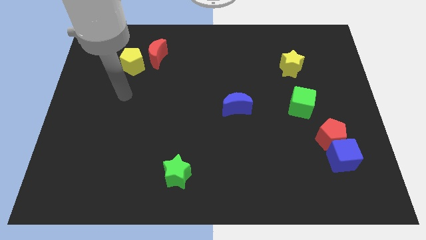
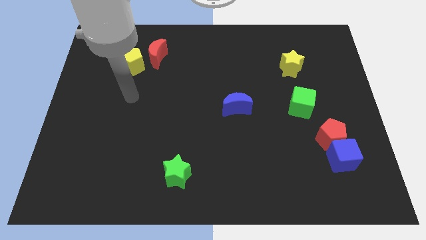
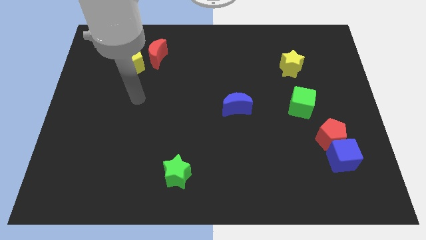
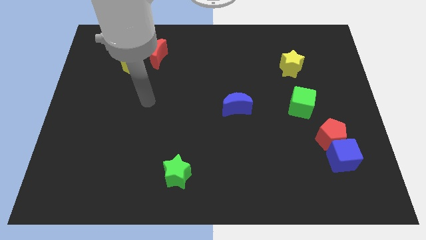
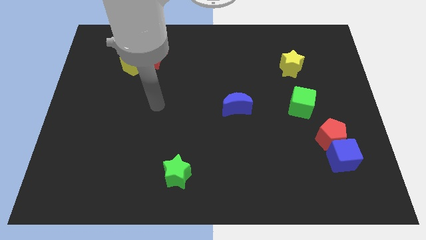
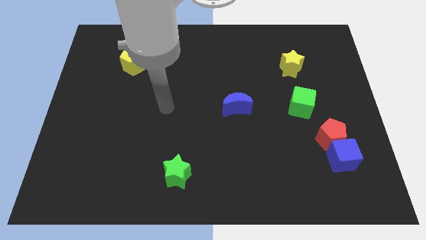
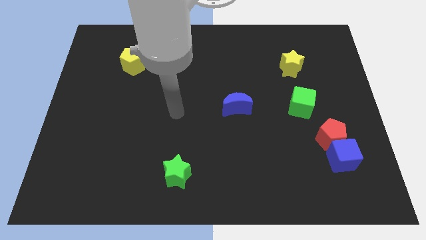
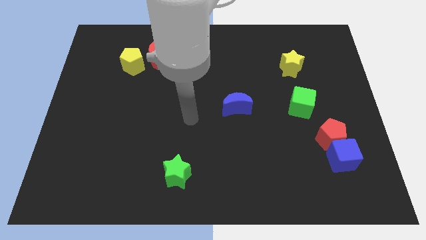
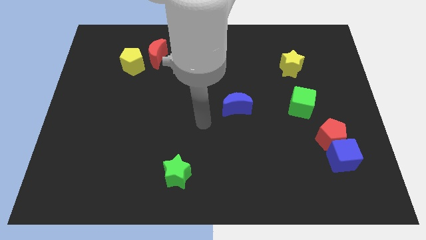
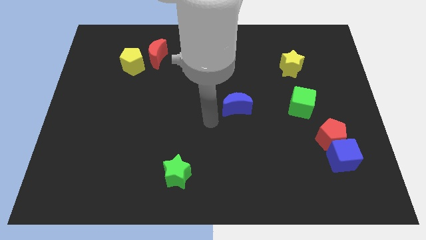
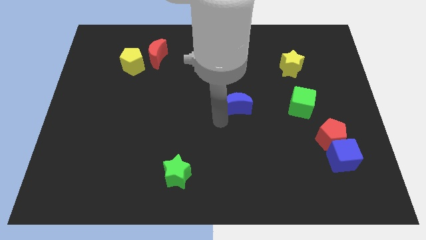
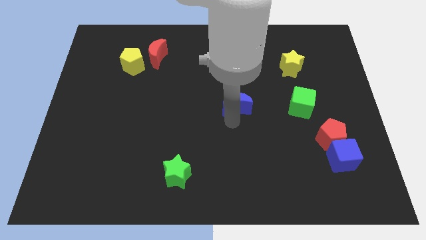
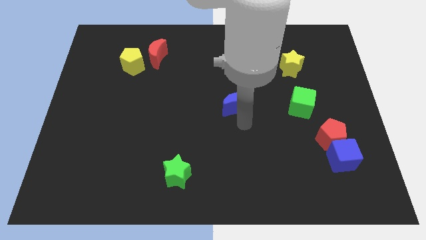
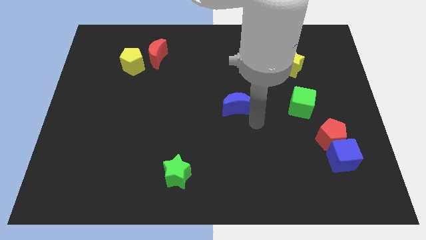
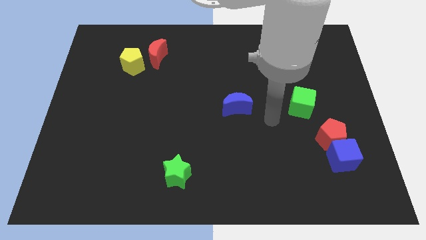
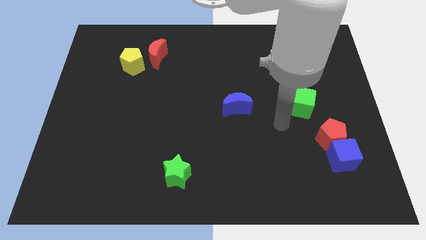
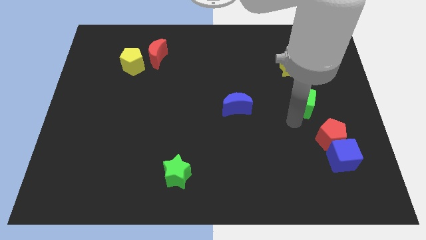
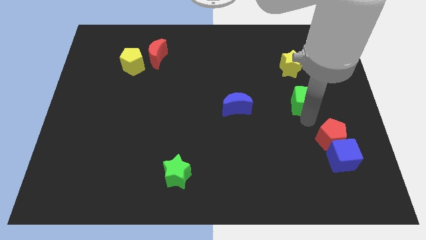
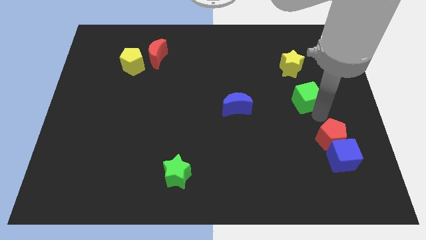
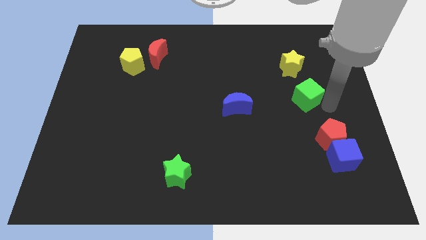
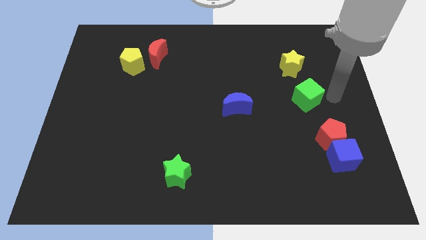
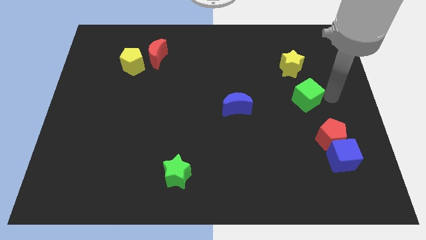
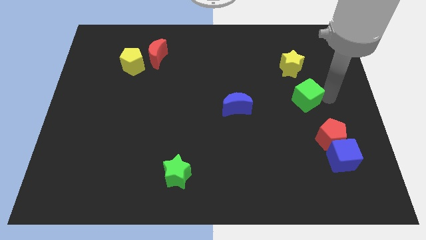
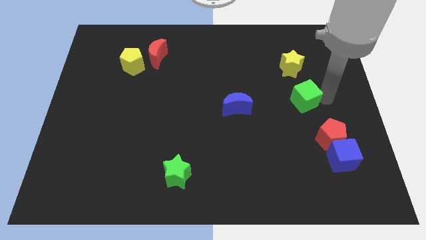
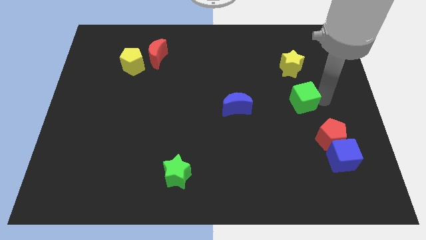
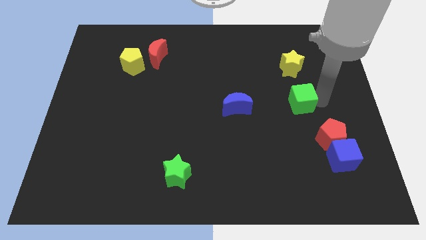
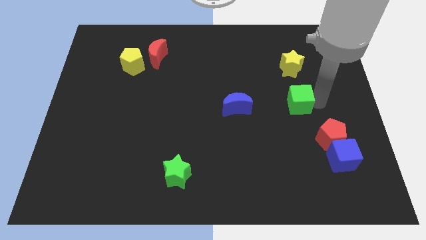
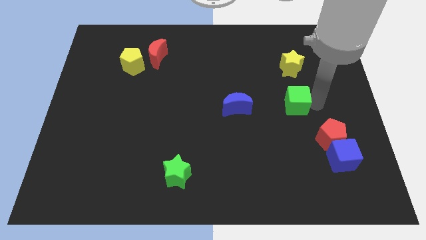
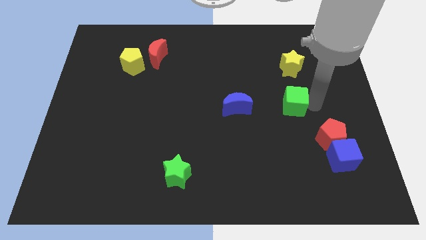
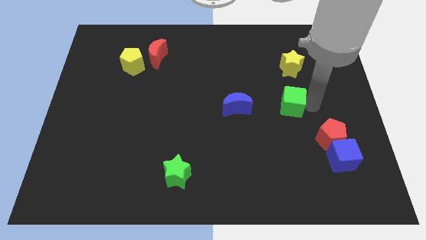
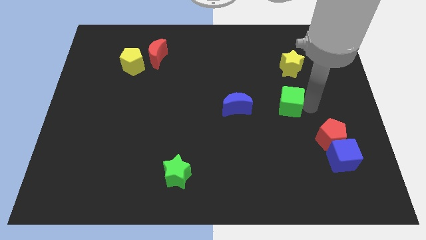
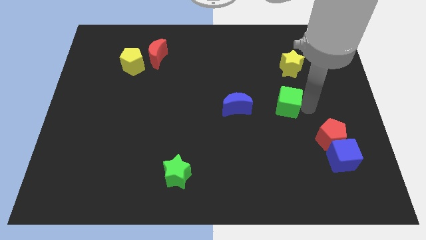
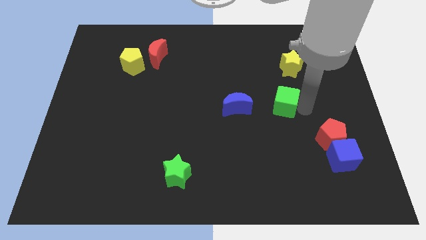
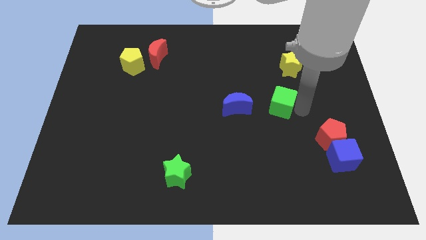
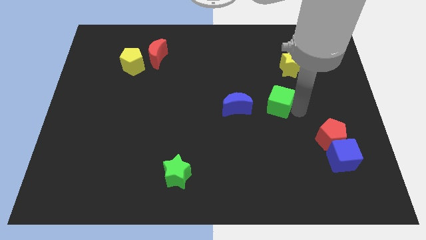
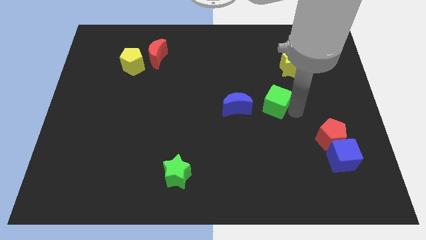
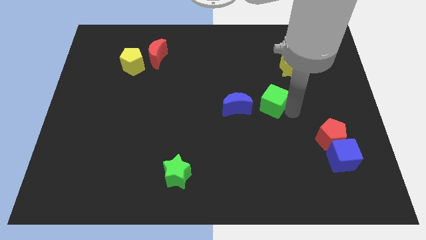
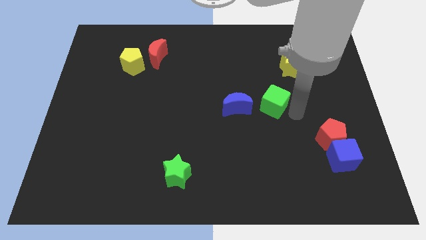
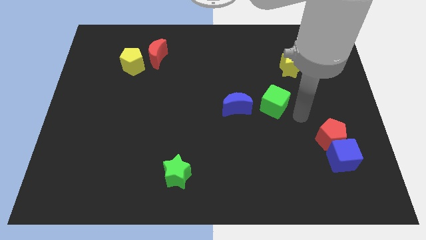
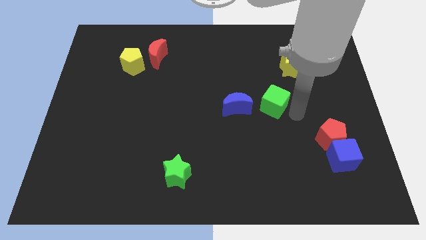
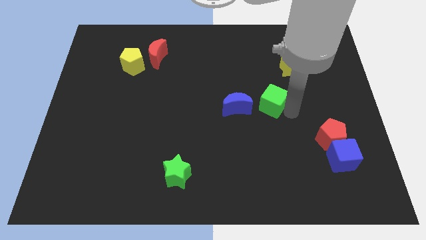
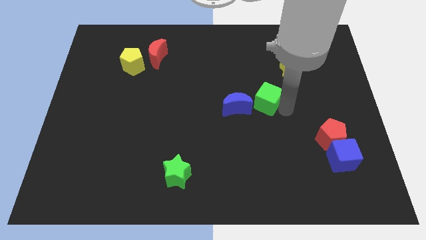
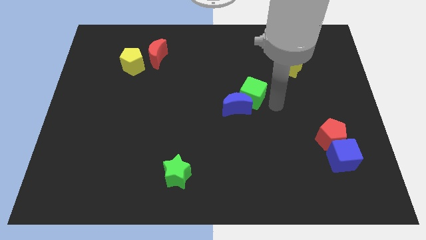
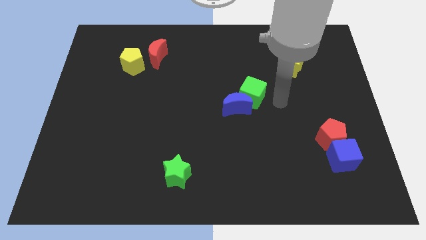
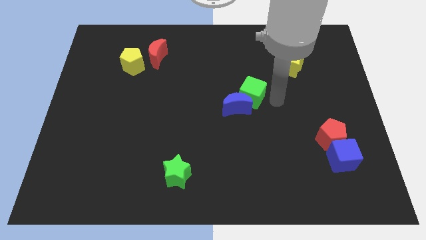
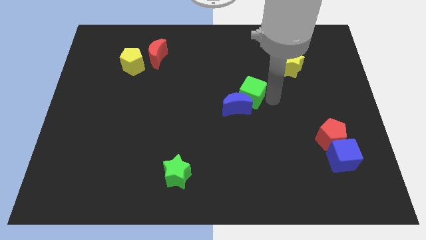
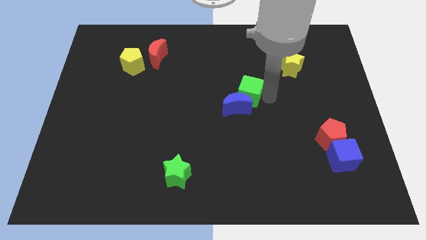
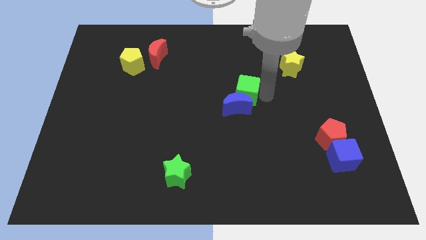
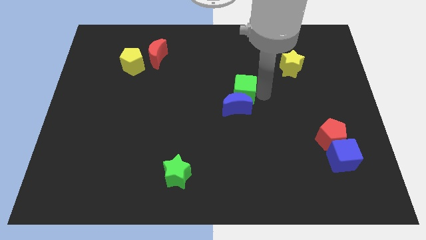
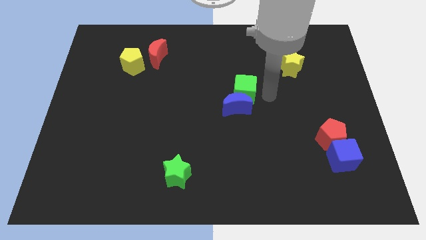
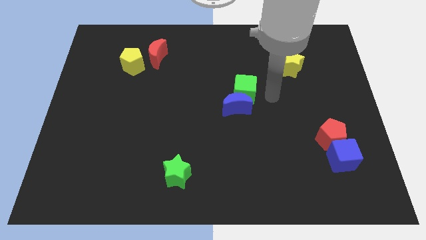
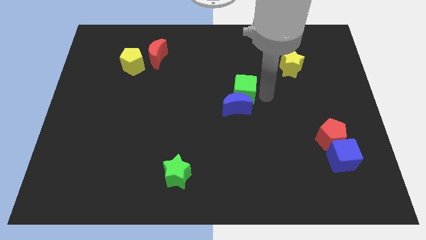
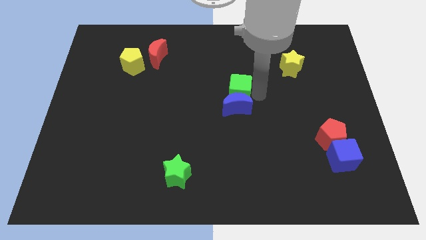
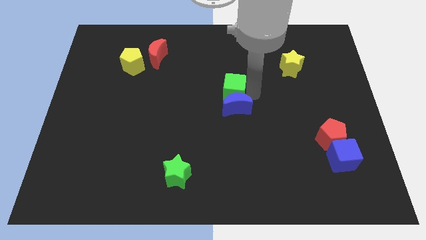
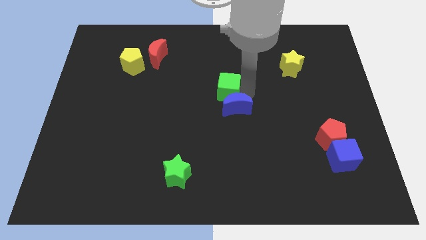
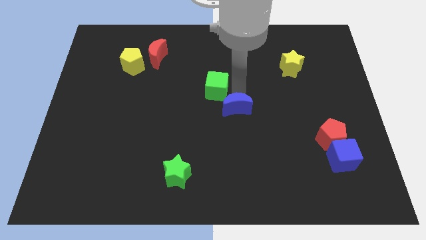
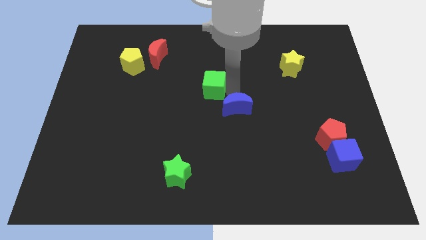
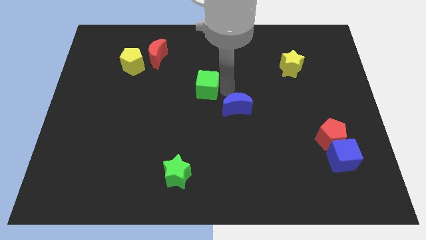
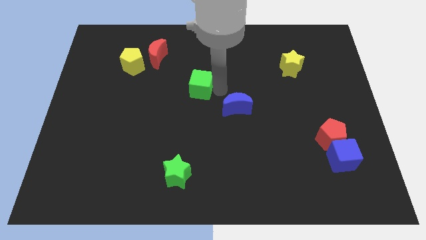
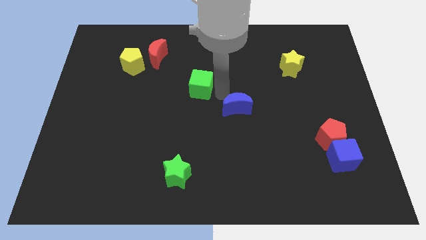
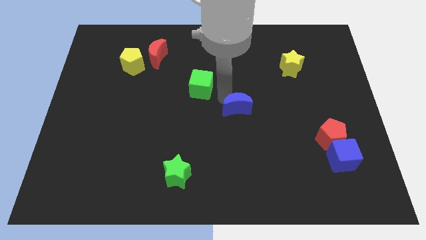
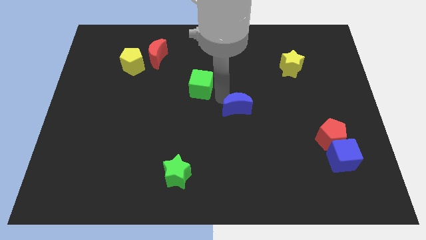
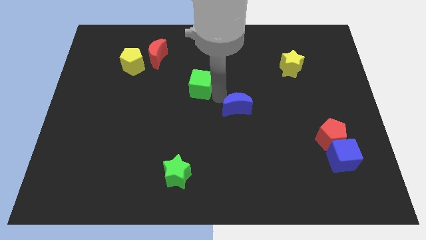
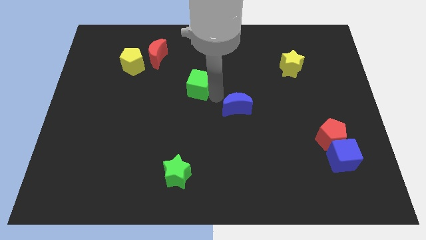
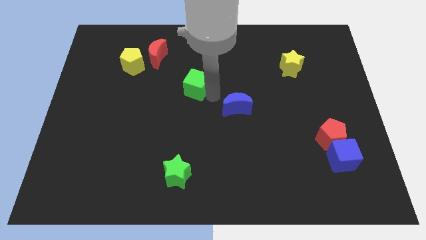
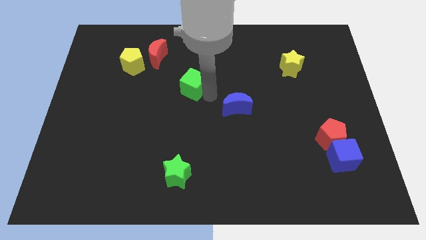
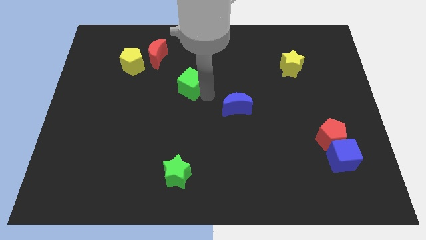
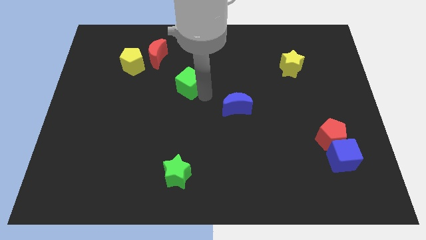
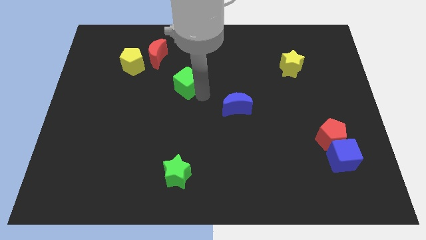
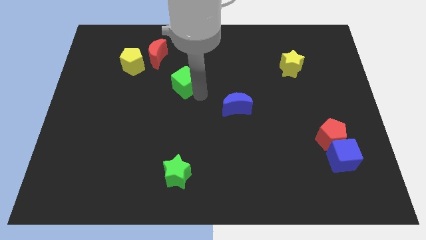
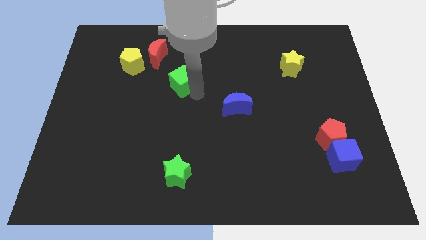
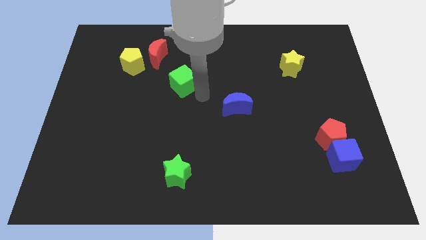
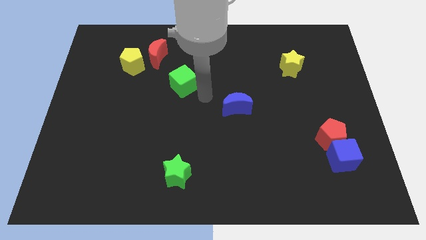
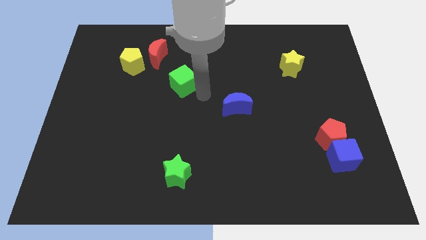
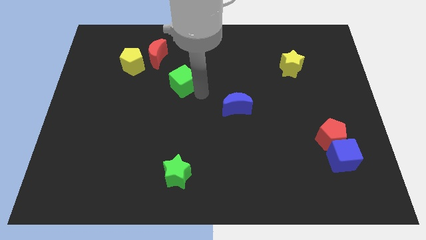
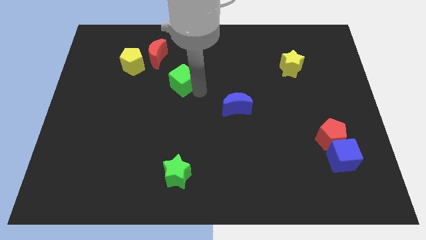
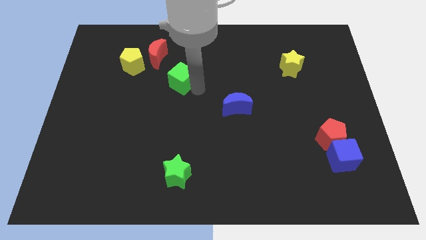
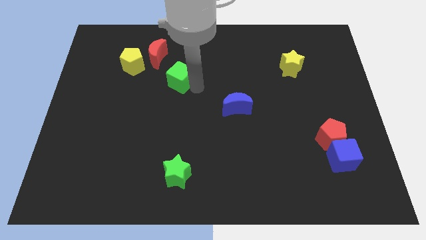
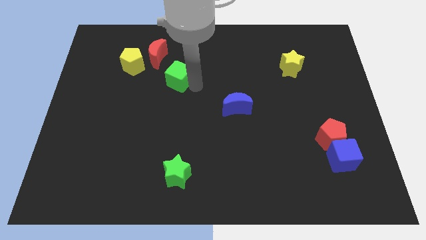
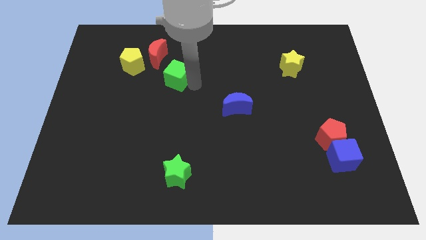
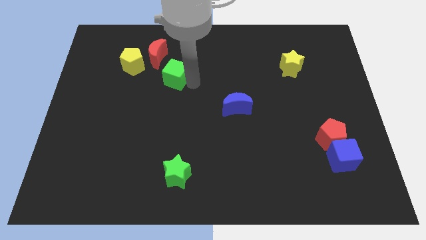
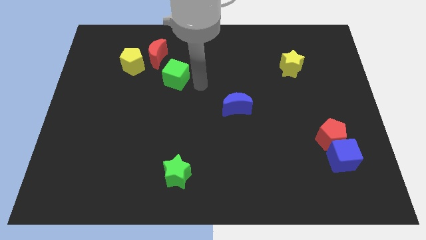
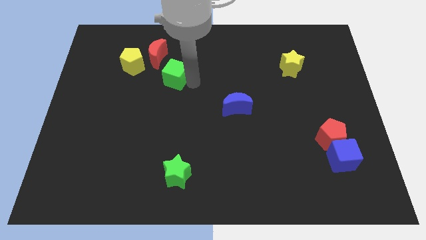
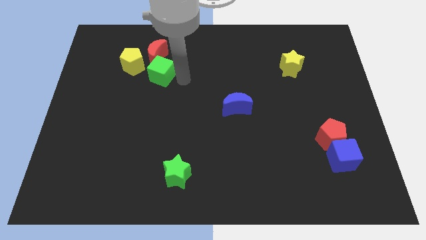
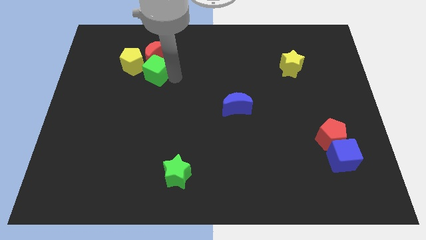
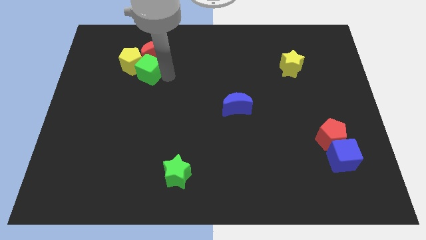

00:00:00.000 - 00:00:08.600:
slide the green cube to the yellow pentagon
